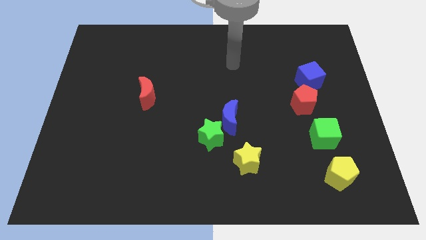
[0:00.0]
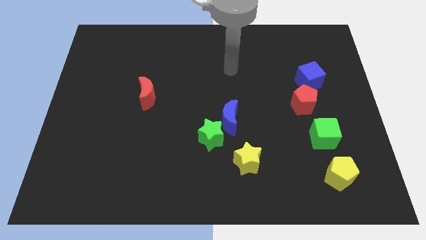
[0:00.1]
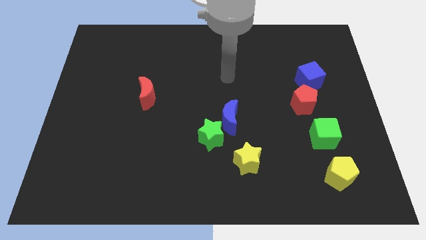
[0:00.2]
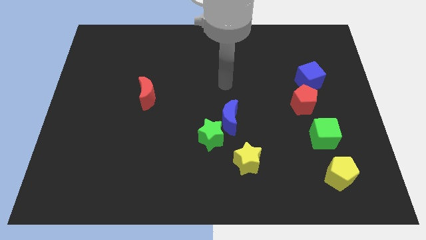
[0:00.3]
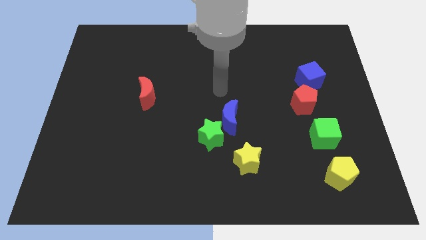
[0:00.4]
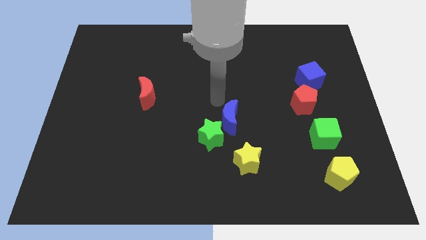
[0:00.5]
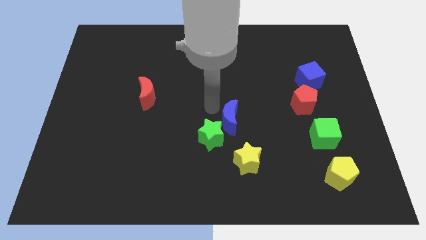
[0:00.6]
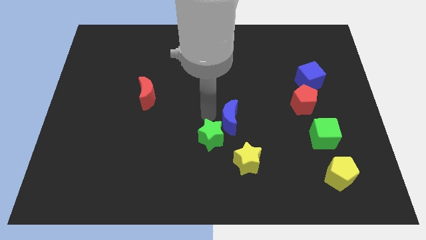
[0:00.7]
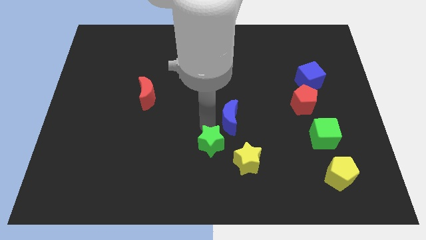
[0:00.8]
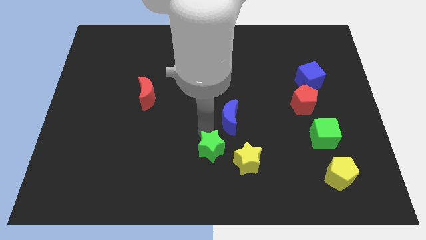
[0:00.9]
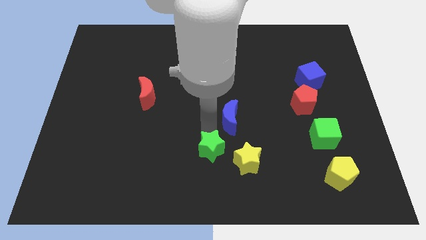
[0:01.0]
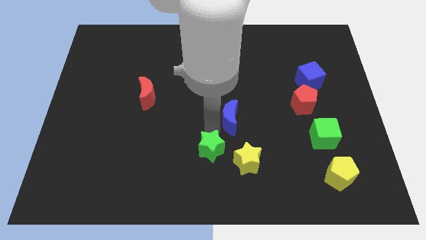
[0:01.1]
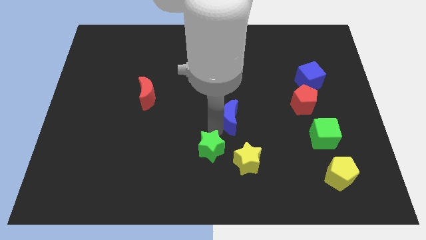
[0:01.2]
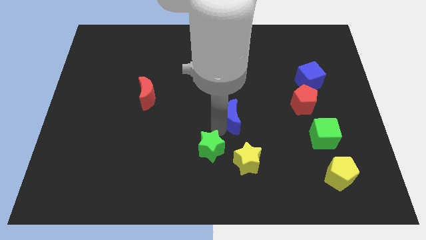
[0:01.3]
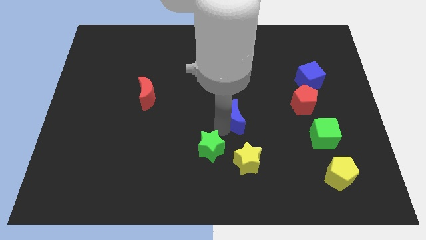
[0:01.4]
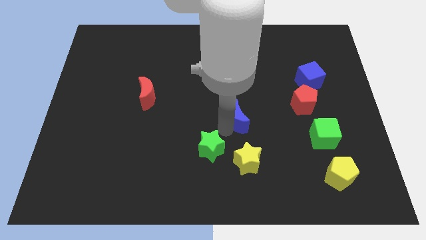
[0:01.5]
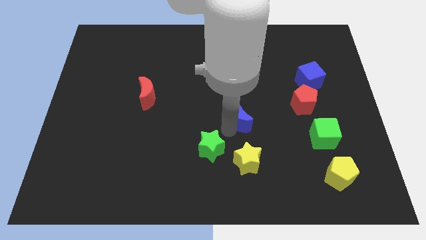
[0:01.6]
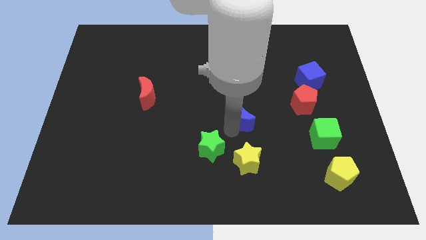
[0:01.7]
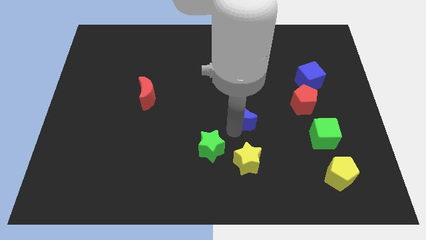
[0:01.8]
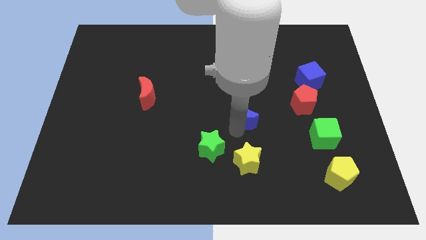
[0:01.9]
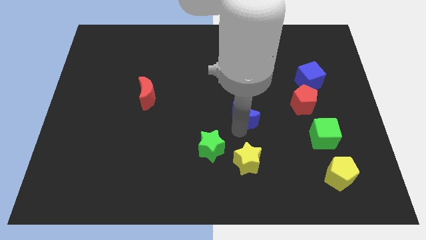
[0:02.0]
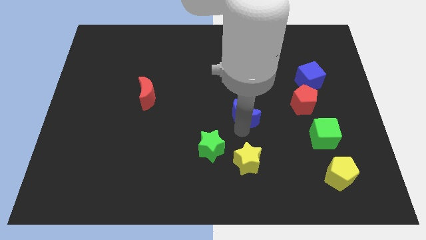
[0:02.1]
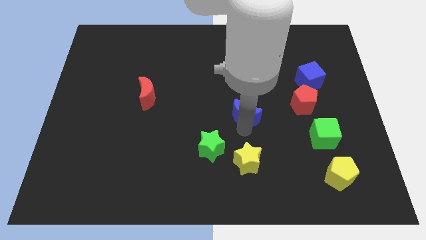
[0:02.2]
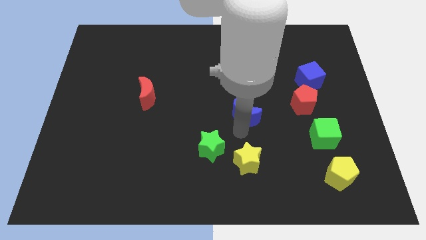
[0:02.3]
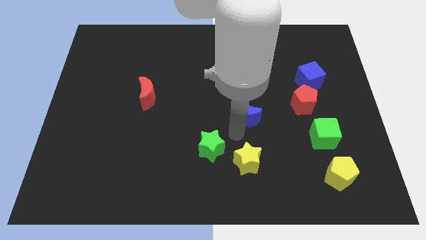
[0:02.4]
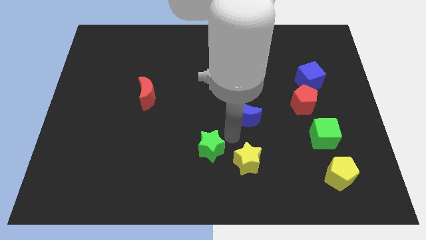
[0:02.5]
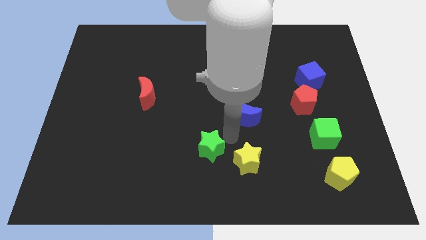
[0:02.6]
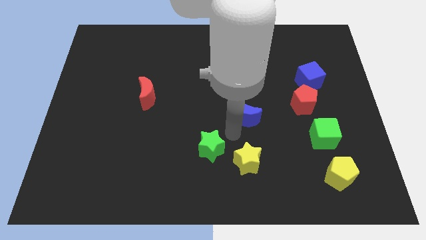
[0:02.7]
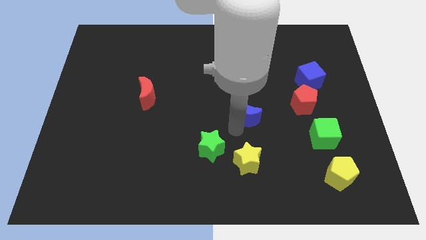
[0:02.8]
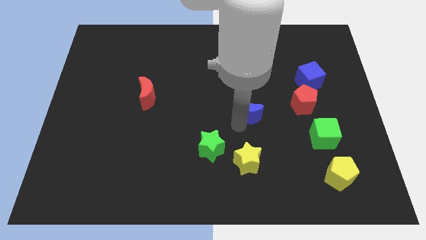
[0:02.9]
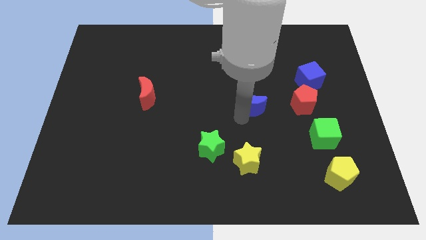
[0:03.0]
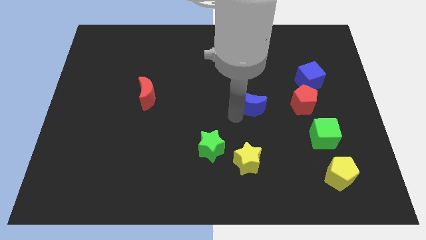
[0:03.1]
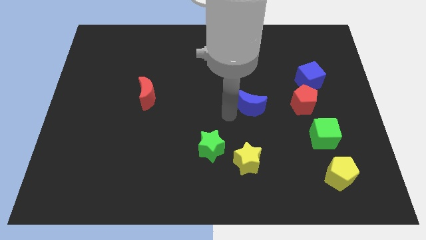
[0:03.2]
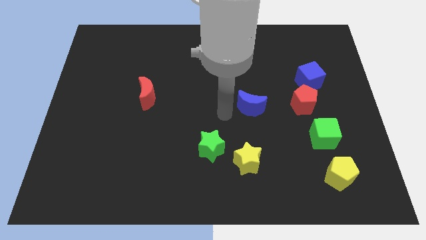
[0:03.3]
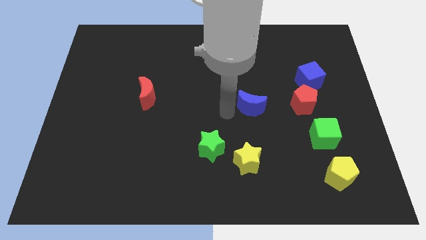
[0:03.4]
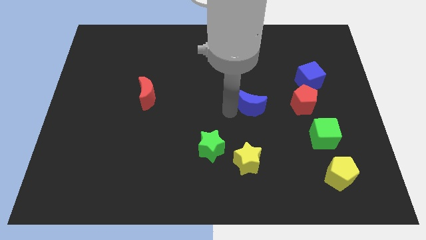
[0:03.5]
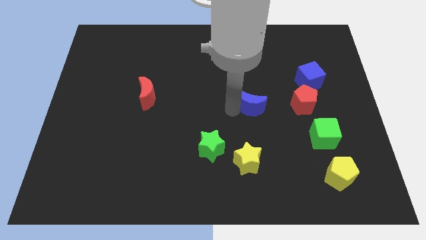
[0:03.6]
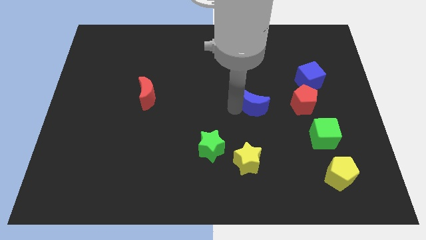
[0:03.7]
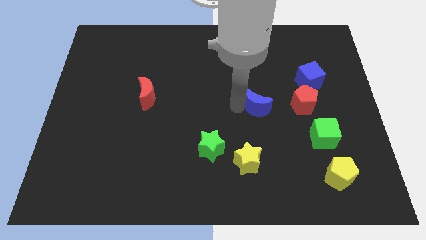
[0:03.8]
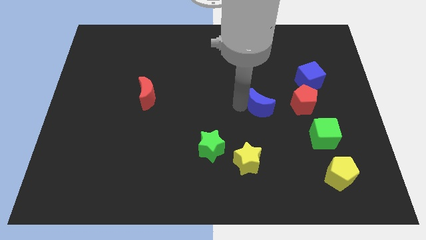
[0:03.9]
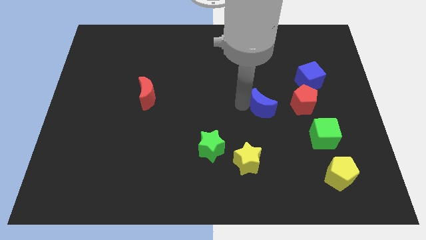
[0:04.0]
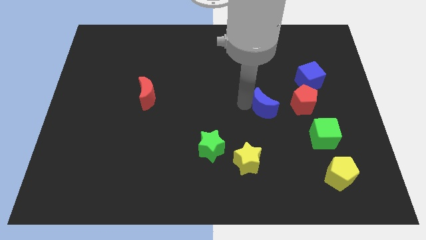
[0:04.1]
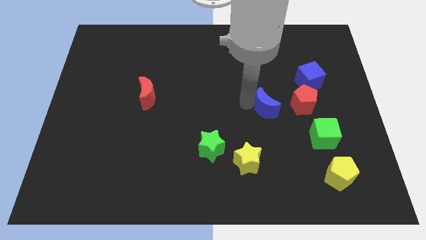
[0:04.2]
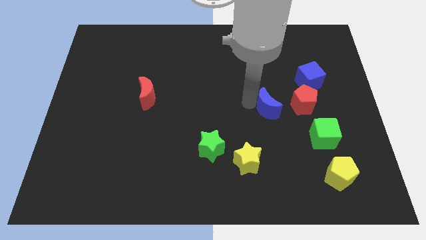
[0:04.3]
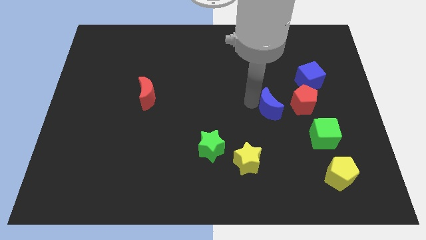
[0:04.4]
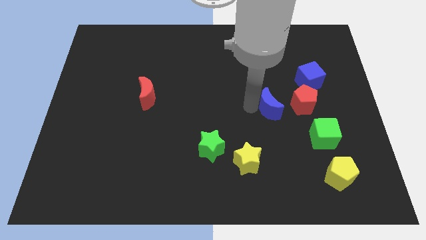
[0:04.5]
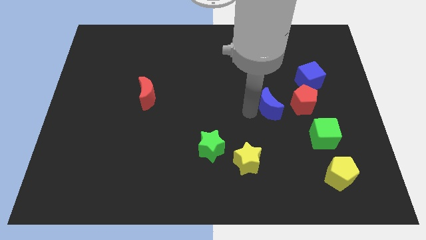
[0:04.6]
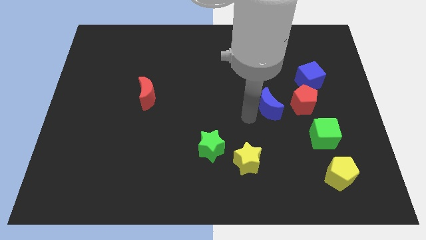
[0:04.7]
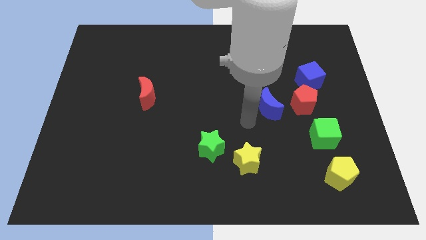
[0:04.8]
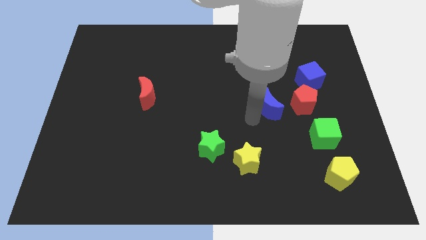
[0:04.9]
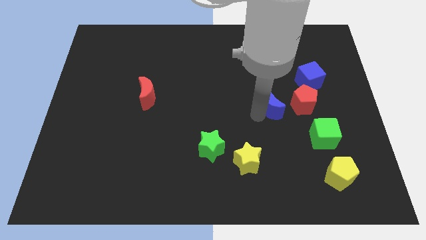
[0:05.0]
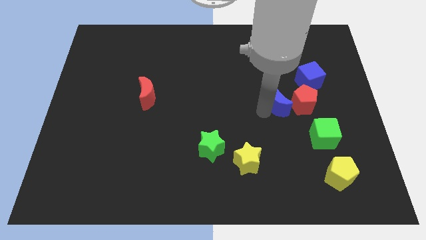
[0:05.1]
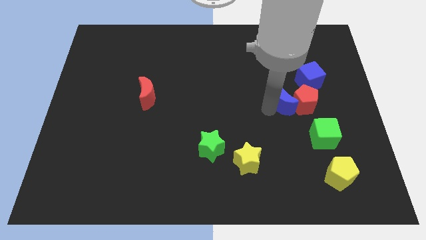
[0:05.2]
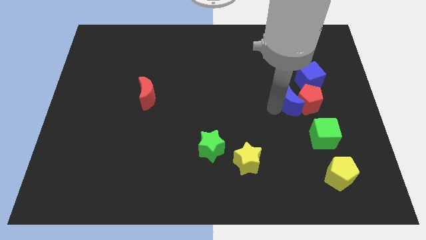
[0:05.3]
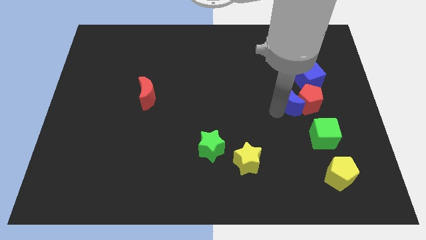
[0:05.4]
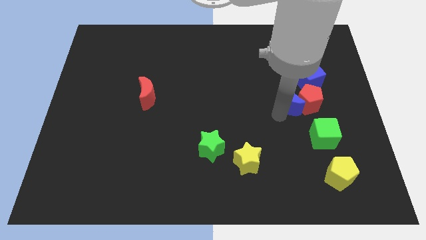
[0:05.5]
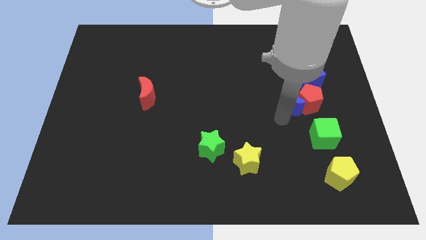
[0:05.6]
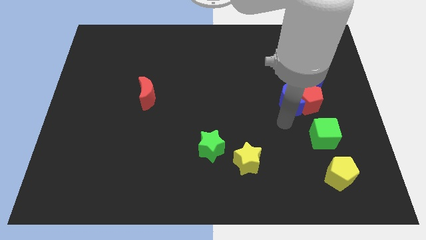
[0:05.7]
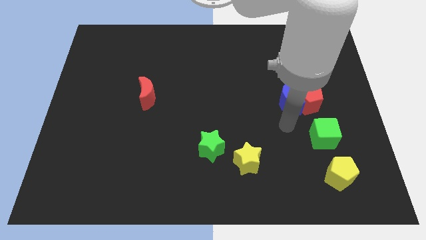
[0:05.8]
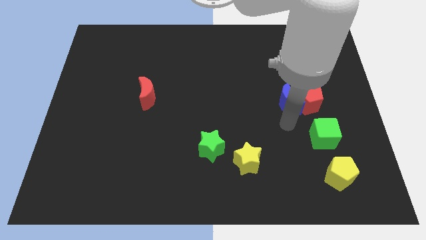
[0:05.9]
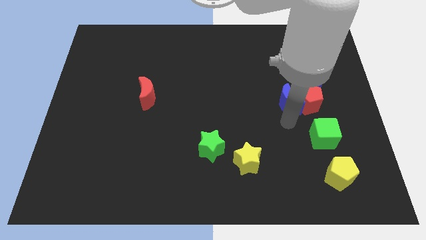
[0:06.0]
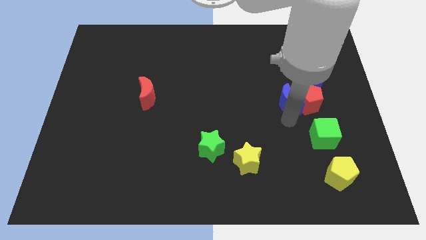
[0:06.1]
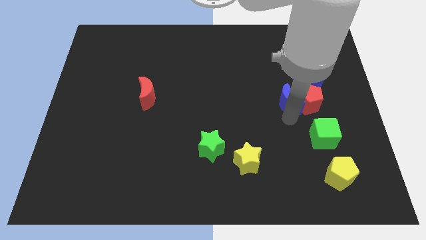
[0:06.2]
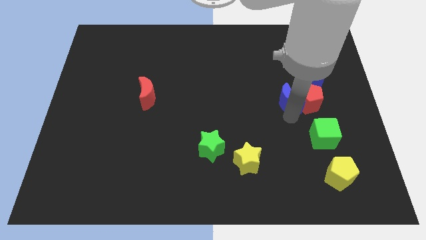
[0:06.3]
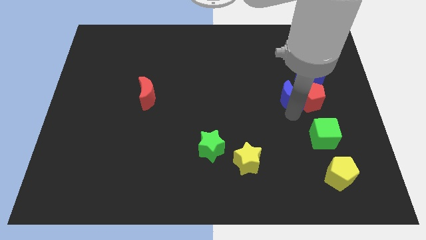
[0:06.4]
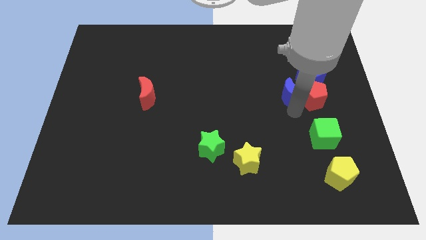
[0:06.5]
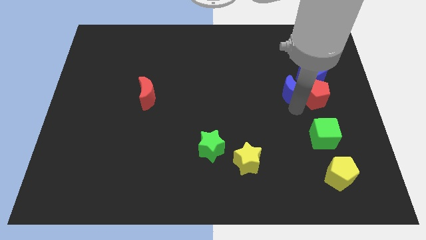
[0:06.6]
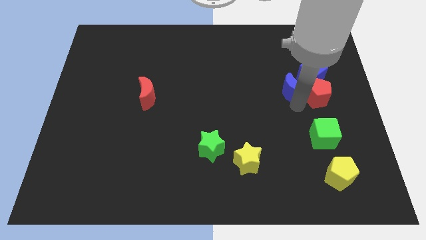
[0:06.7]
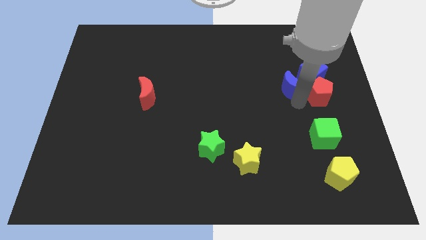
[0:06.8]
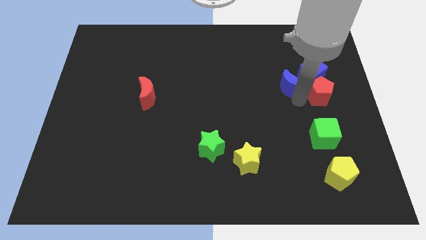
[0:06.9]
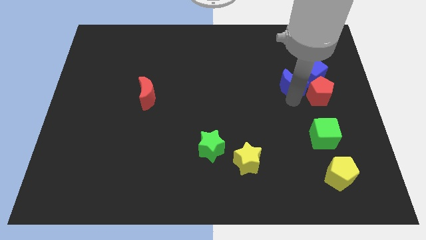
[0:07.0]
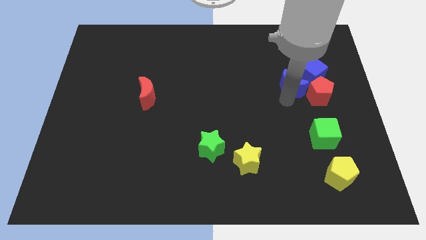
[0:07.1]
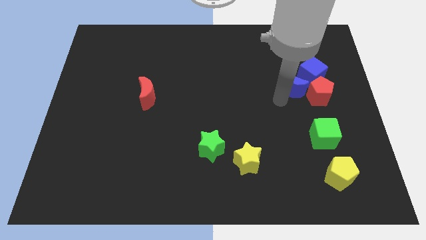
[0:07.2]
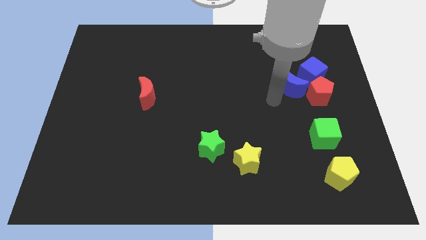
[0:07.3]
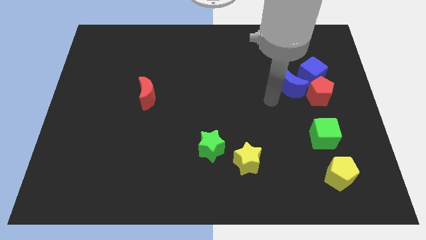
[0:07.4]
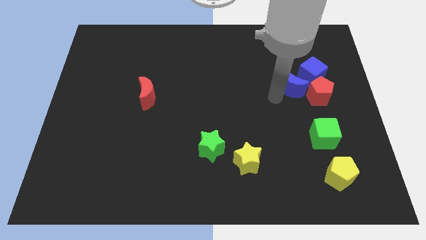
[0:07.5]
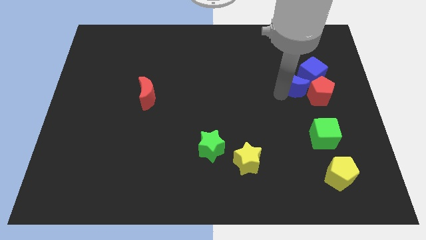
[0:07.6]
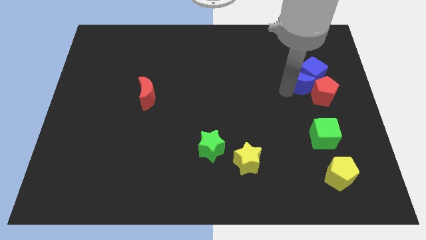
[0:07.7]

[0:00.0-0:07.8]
slide the blue moon next to the blue cube
